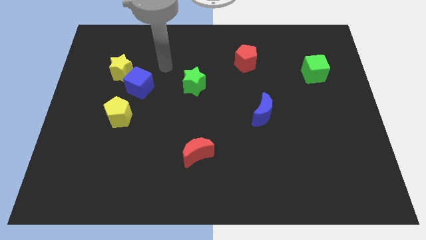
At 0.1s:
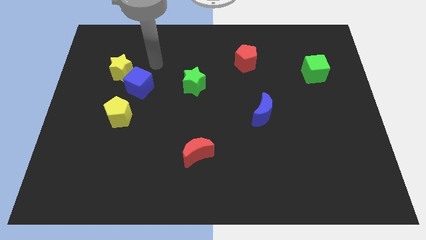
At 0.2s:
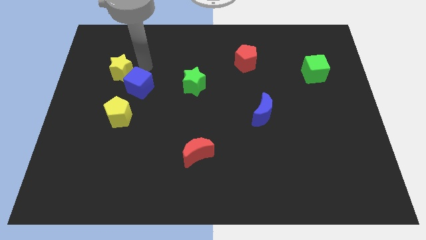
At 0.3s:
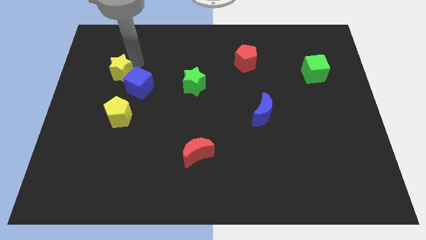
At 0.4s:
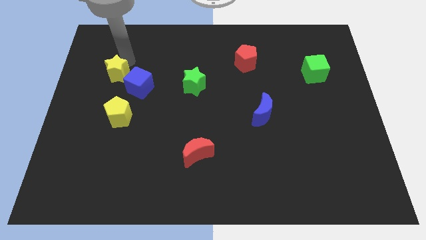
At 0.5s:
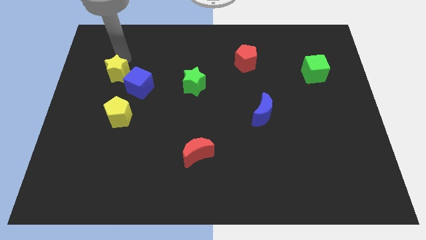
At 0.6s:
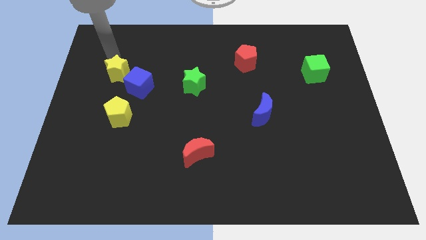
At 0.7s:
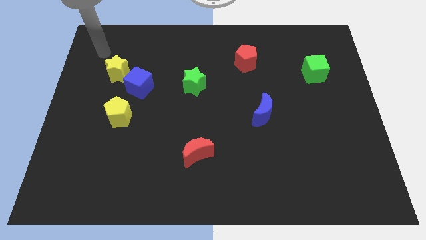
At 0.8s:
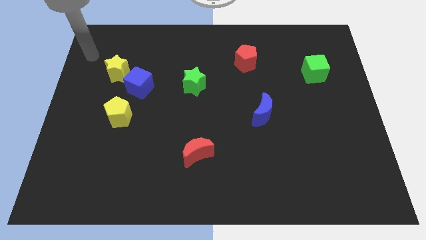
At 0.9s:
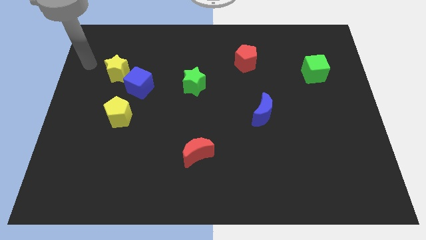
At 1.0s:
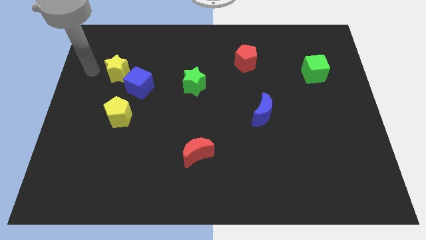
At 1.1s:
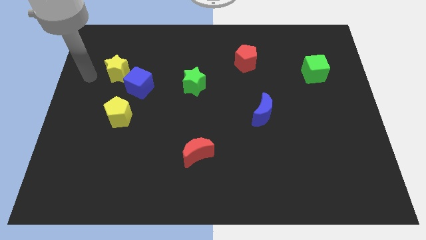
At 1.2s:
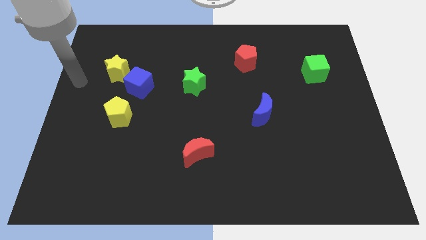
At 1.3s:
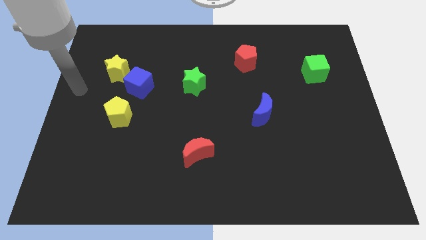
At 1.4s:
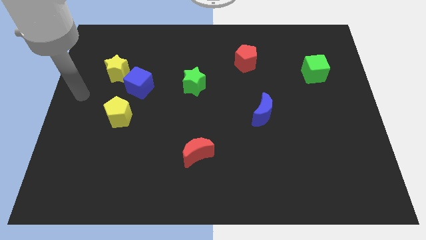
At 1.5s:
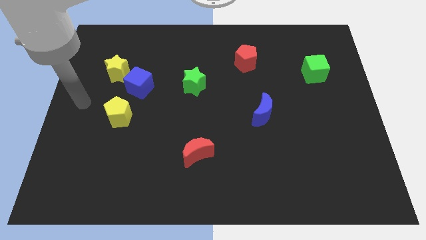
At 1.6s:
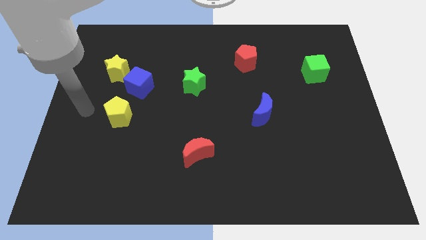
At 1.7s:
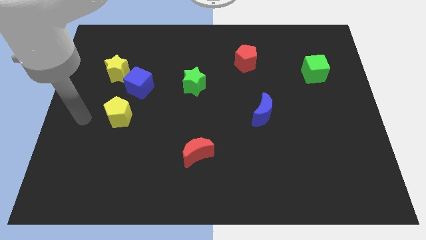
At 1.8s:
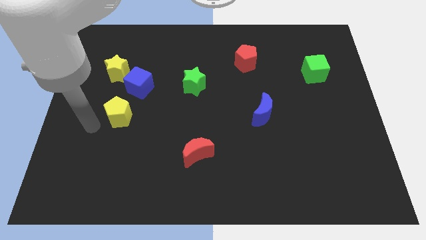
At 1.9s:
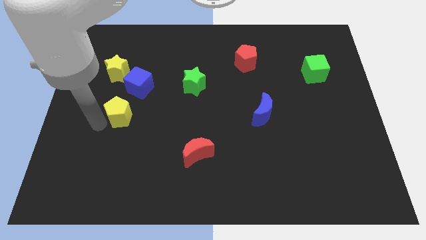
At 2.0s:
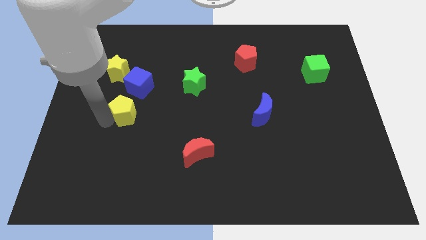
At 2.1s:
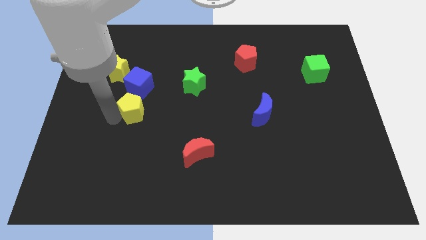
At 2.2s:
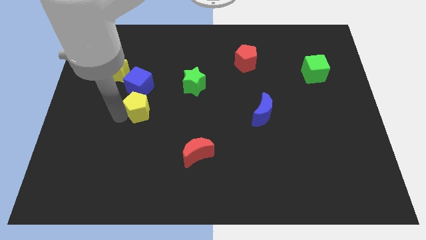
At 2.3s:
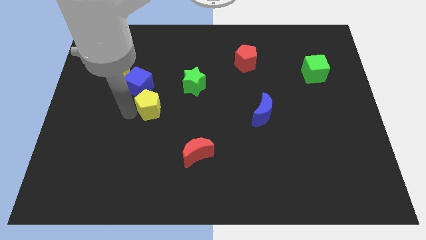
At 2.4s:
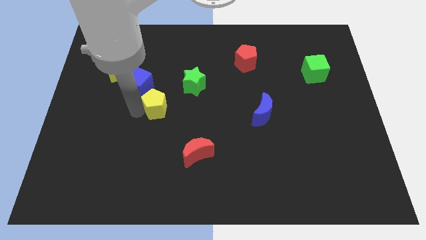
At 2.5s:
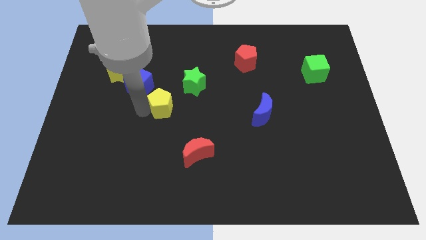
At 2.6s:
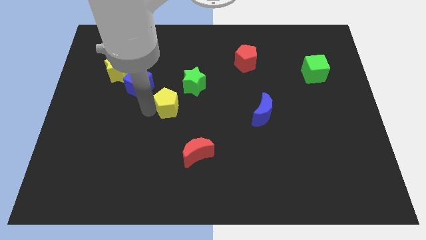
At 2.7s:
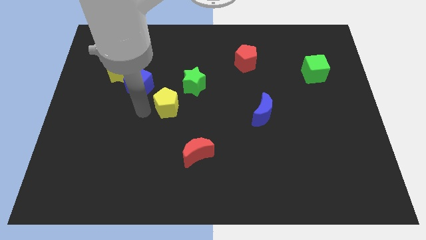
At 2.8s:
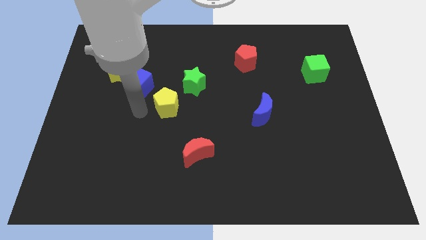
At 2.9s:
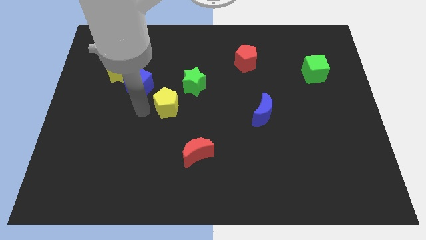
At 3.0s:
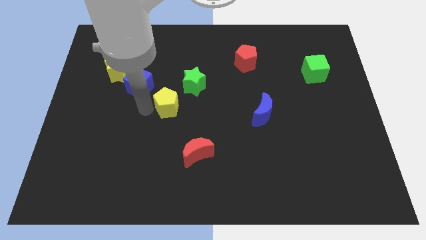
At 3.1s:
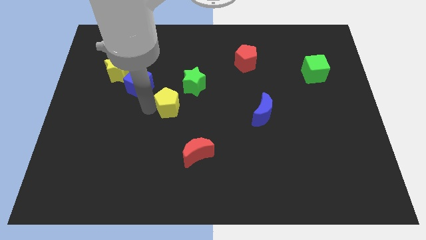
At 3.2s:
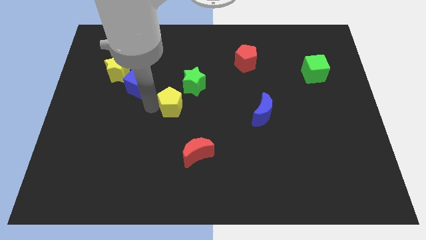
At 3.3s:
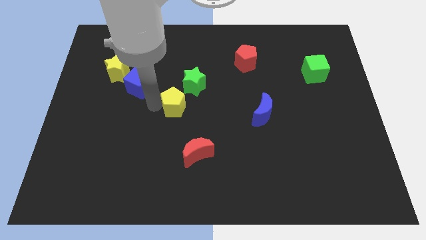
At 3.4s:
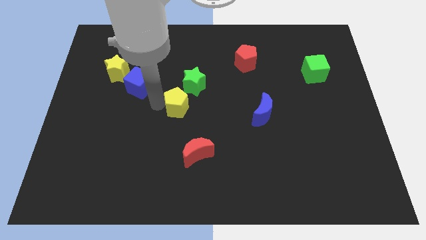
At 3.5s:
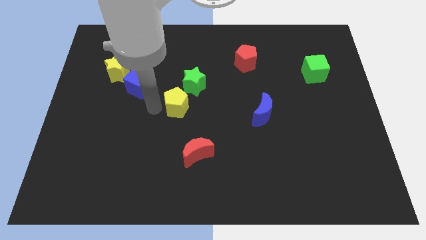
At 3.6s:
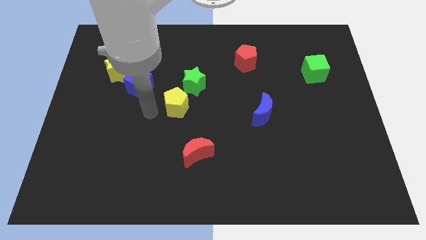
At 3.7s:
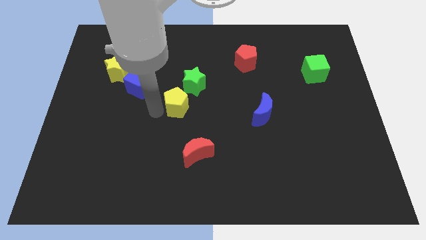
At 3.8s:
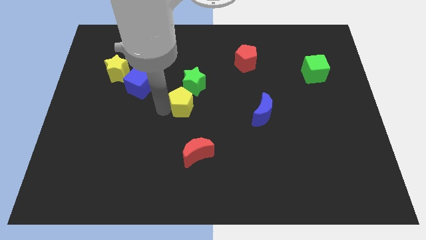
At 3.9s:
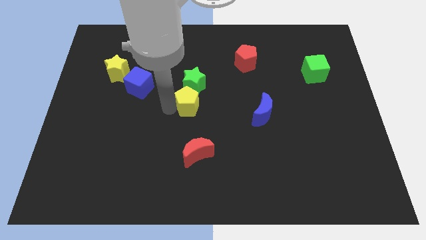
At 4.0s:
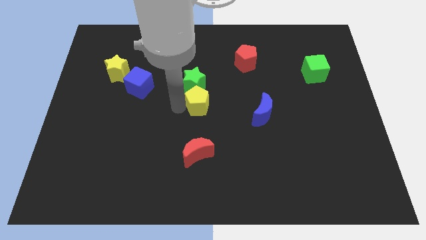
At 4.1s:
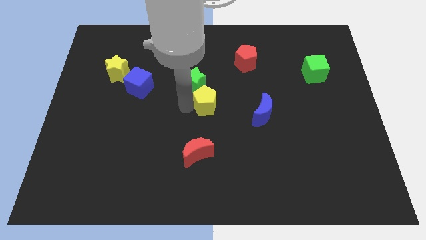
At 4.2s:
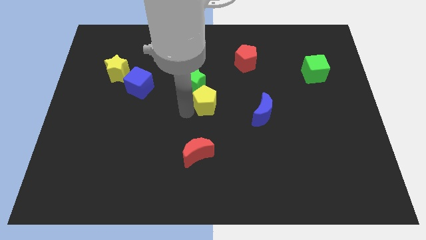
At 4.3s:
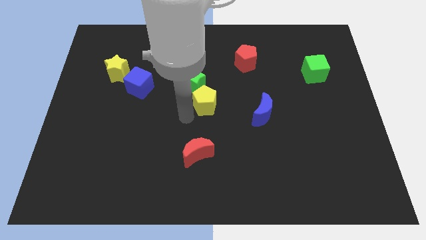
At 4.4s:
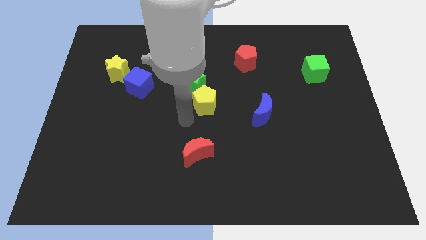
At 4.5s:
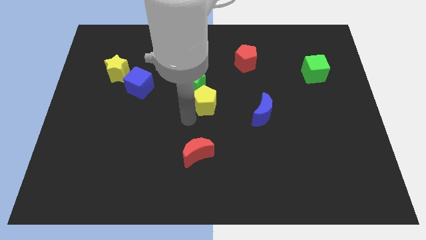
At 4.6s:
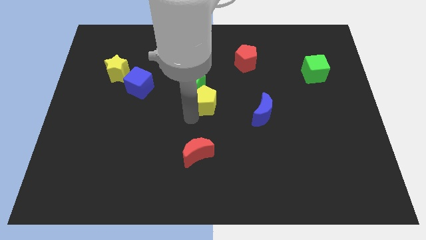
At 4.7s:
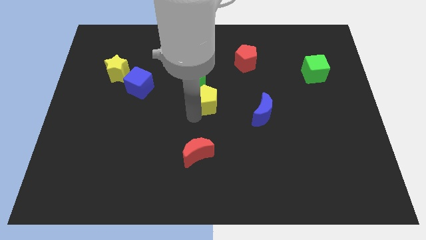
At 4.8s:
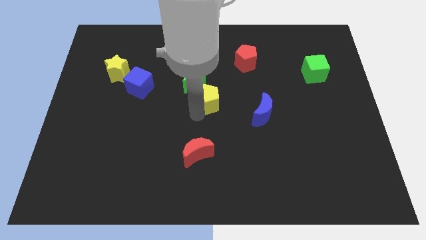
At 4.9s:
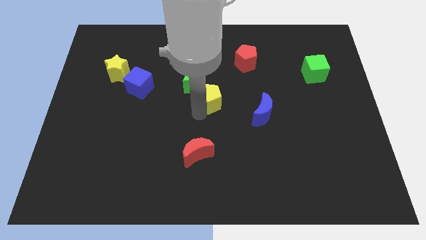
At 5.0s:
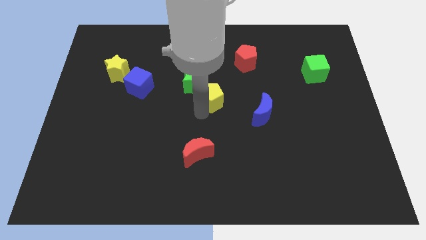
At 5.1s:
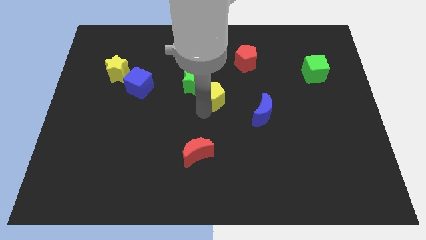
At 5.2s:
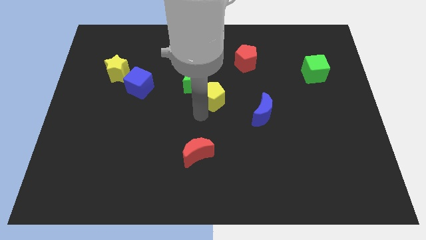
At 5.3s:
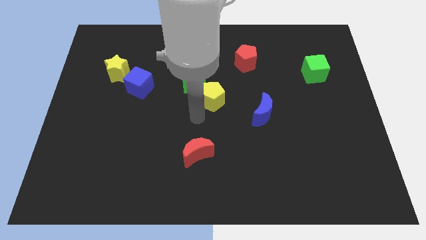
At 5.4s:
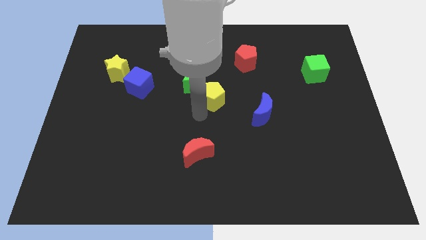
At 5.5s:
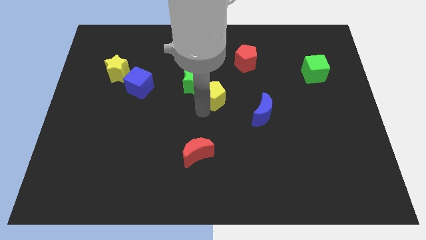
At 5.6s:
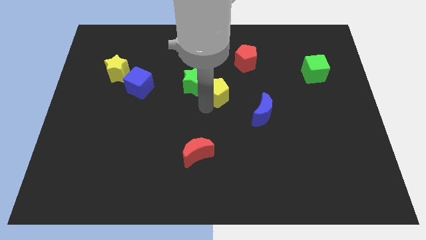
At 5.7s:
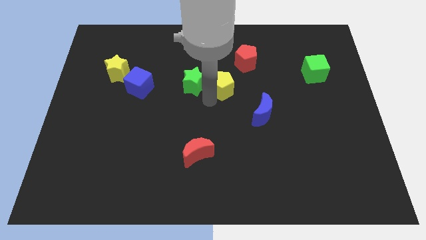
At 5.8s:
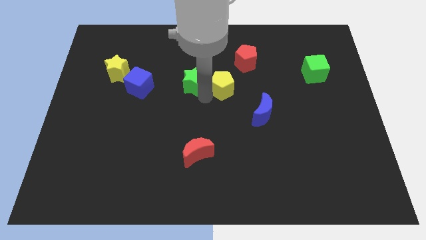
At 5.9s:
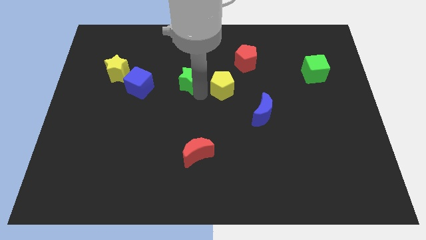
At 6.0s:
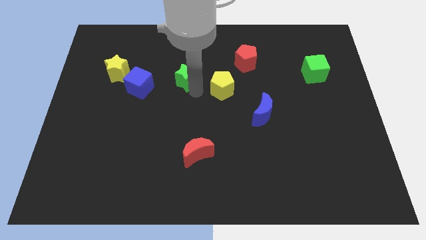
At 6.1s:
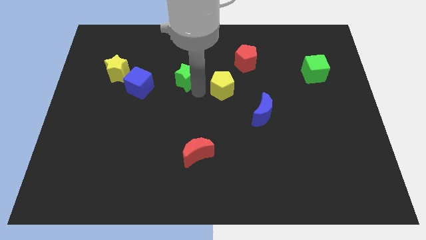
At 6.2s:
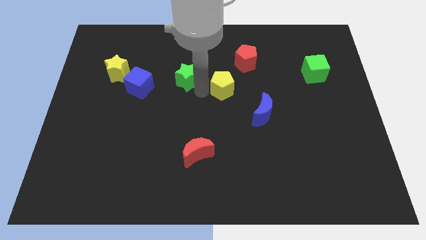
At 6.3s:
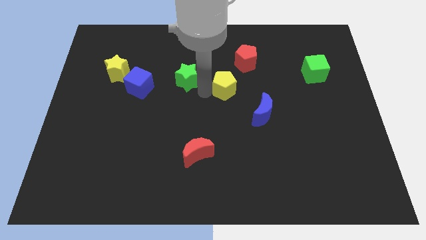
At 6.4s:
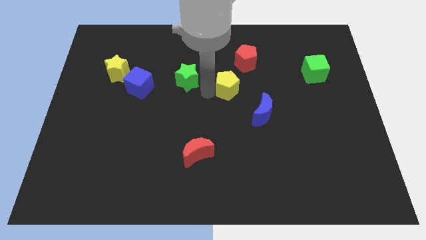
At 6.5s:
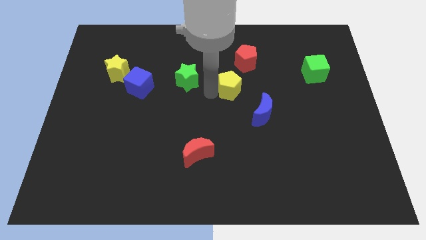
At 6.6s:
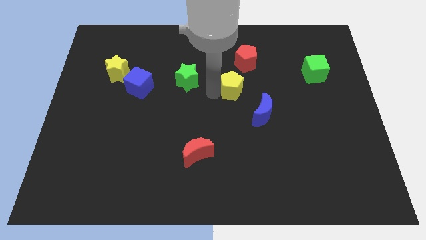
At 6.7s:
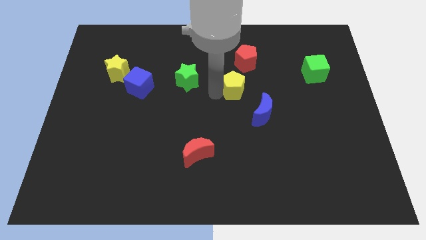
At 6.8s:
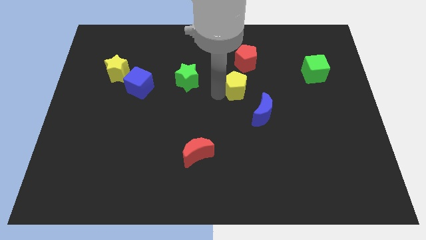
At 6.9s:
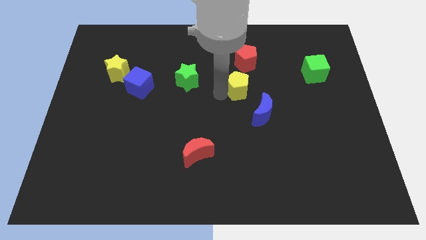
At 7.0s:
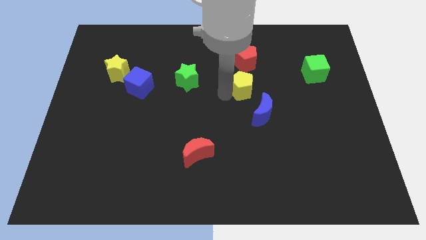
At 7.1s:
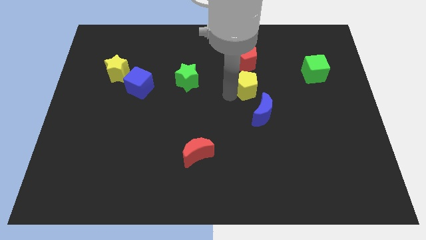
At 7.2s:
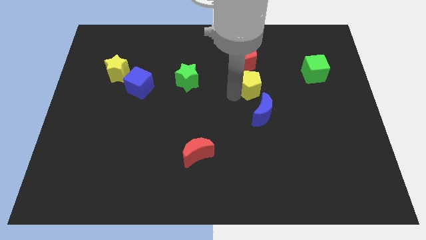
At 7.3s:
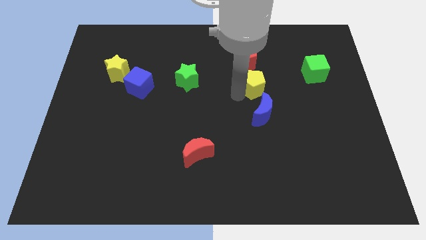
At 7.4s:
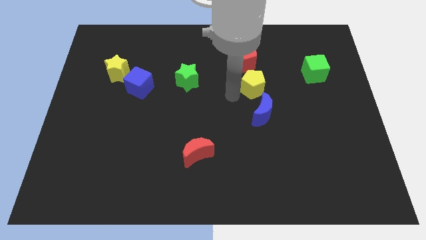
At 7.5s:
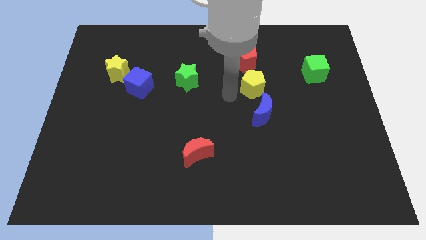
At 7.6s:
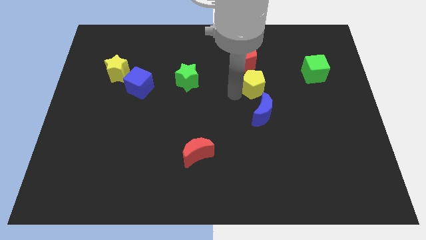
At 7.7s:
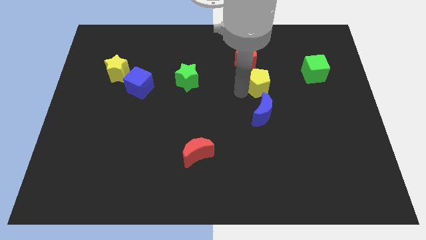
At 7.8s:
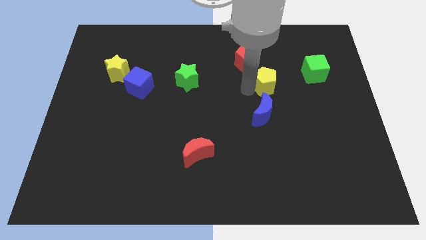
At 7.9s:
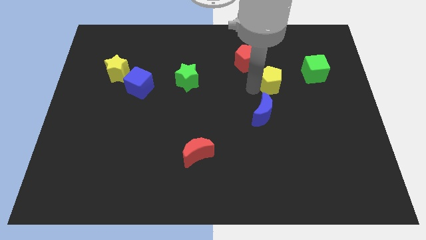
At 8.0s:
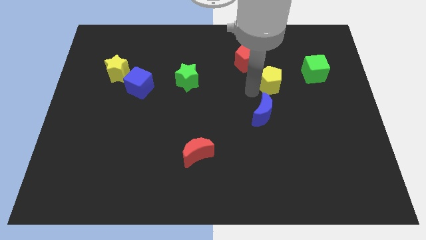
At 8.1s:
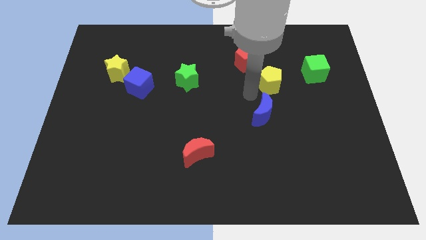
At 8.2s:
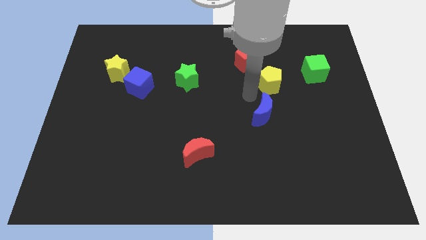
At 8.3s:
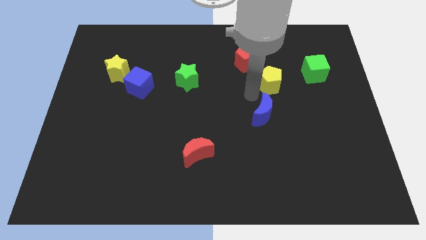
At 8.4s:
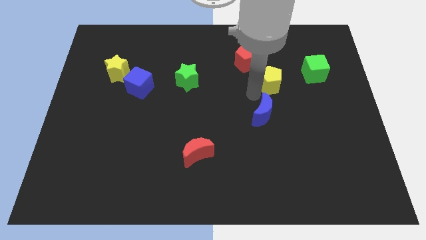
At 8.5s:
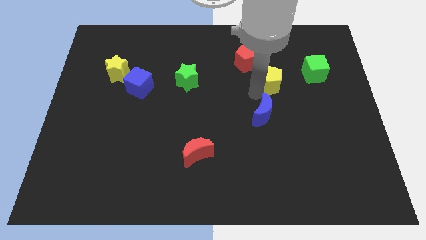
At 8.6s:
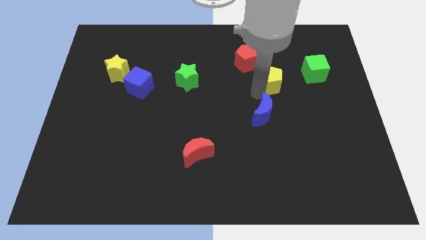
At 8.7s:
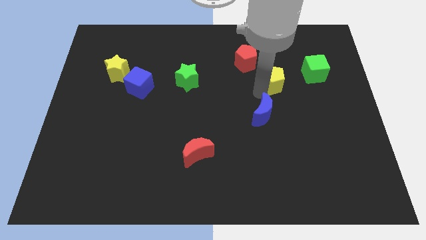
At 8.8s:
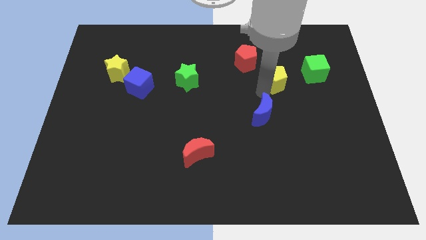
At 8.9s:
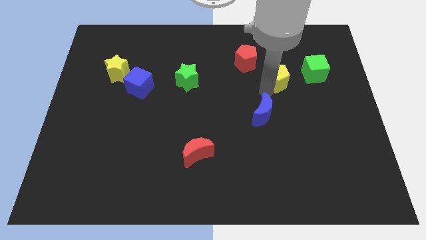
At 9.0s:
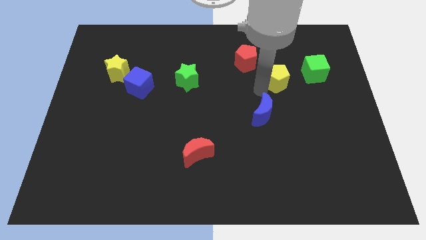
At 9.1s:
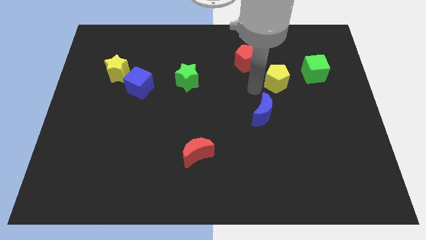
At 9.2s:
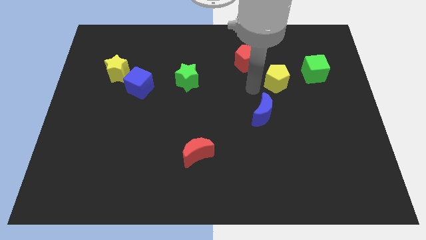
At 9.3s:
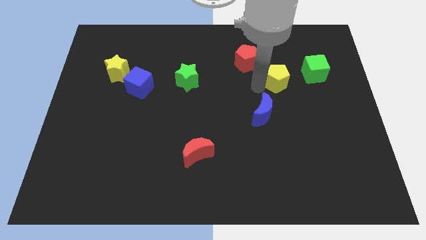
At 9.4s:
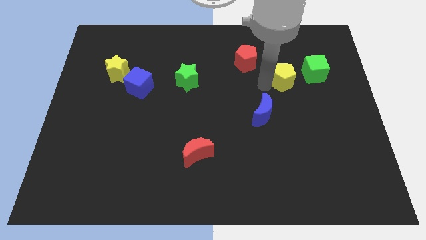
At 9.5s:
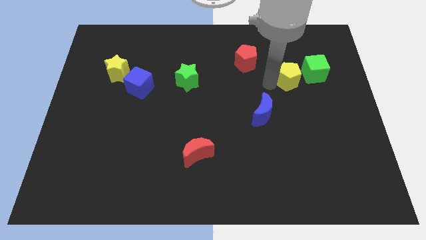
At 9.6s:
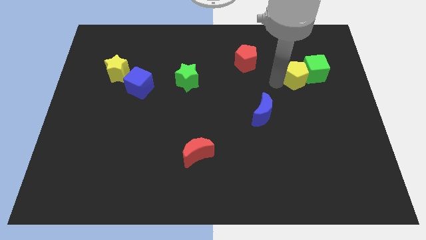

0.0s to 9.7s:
move the yellow pentagon next to the green cube
